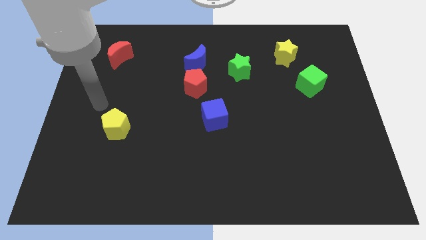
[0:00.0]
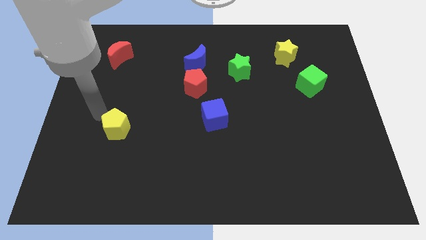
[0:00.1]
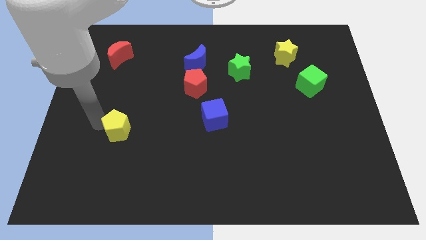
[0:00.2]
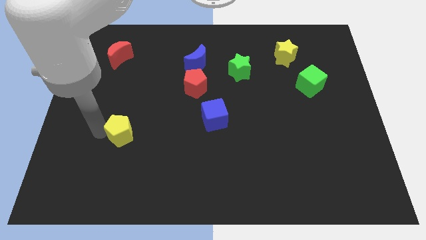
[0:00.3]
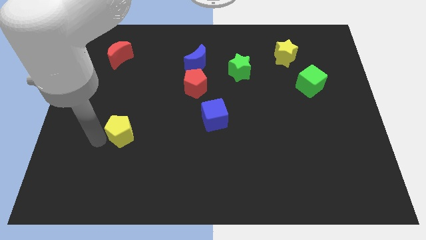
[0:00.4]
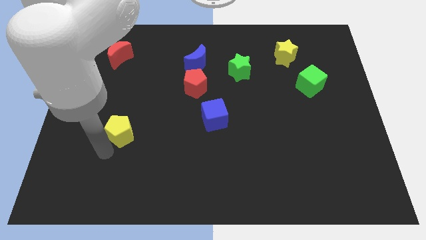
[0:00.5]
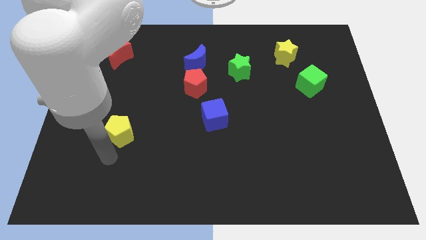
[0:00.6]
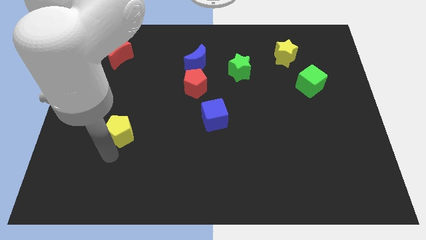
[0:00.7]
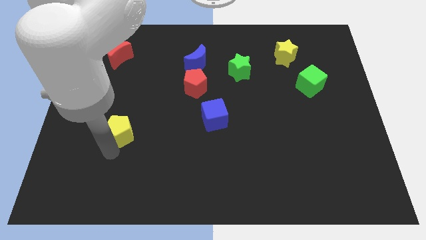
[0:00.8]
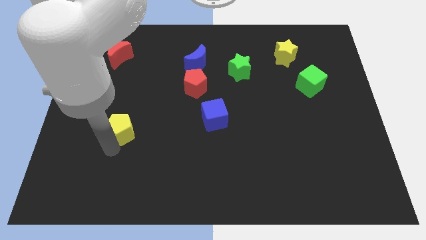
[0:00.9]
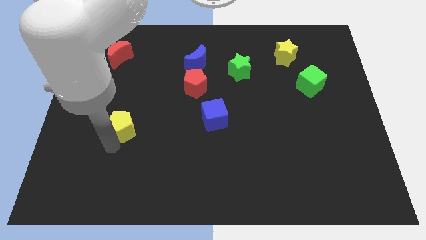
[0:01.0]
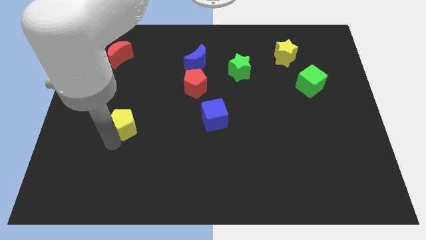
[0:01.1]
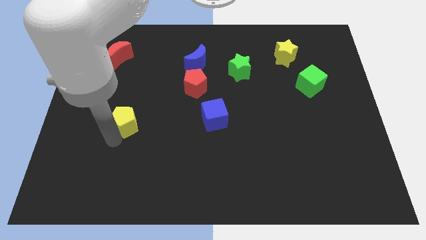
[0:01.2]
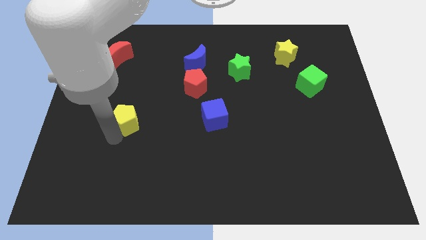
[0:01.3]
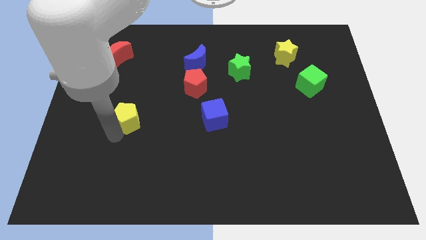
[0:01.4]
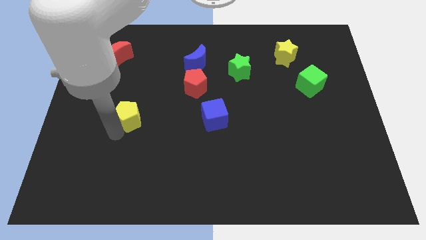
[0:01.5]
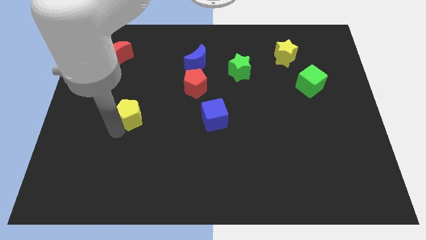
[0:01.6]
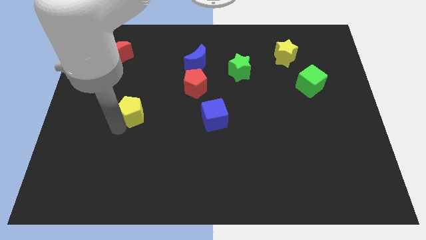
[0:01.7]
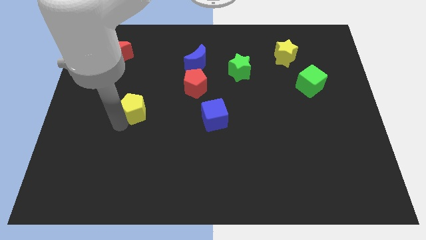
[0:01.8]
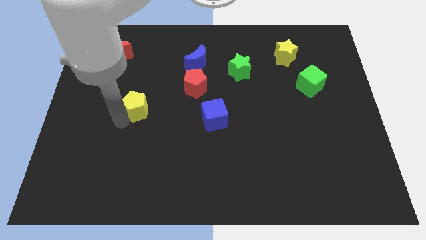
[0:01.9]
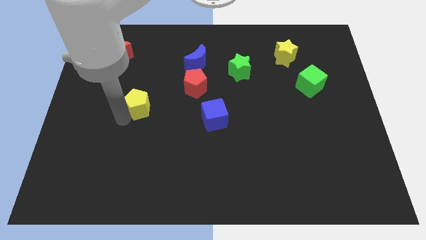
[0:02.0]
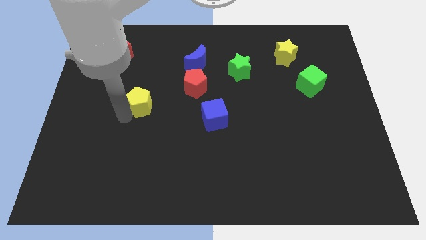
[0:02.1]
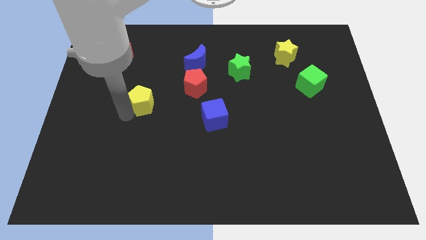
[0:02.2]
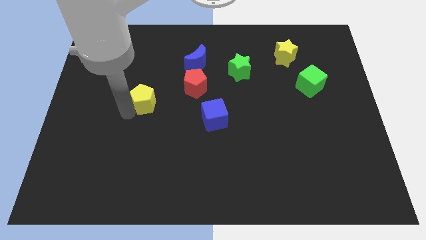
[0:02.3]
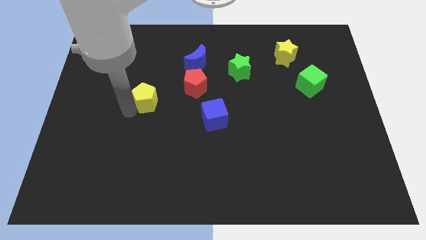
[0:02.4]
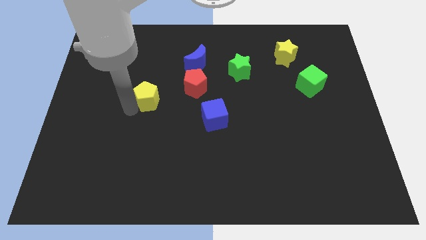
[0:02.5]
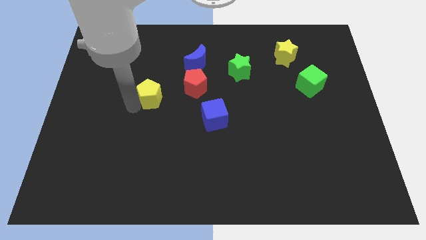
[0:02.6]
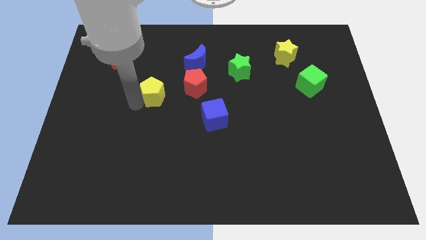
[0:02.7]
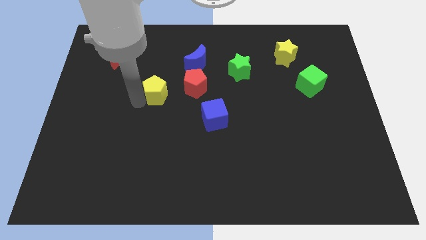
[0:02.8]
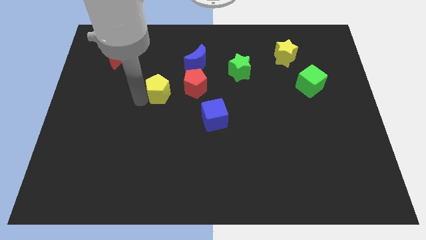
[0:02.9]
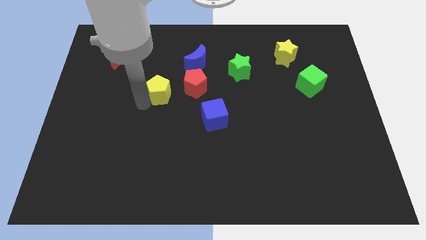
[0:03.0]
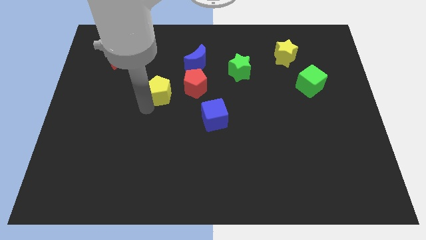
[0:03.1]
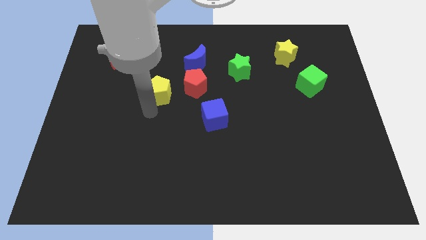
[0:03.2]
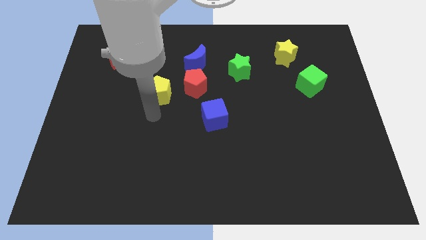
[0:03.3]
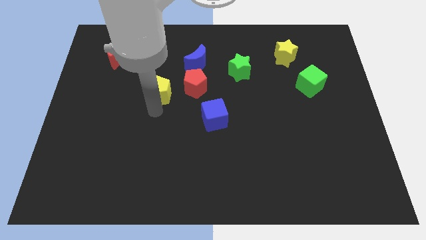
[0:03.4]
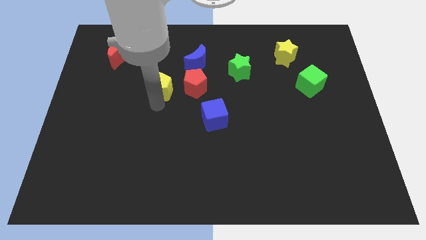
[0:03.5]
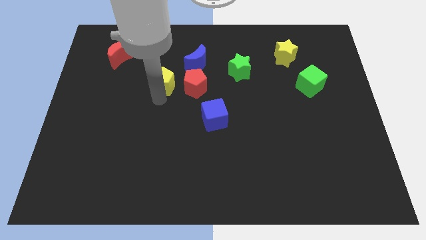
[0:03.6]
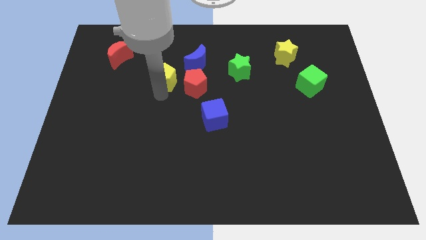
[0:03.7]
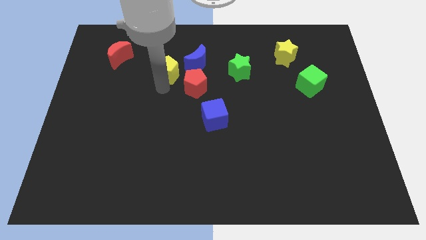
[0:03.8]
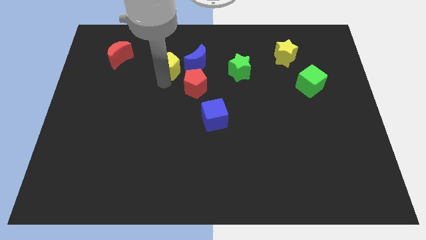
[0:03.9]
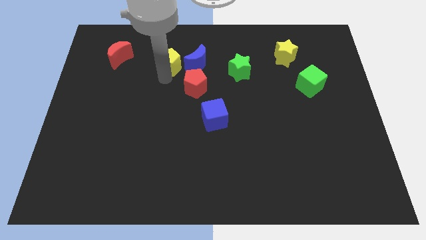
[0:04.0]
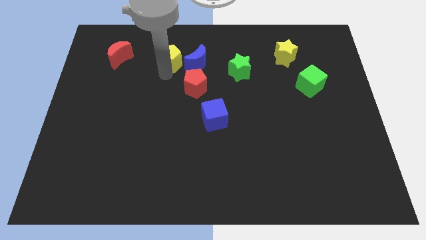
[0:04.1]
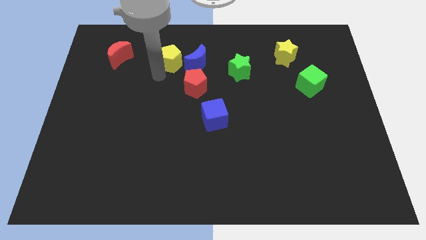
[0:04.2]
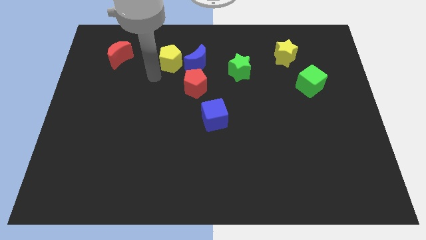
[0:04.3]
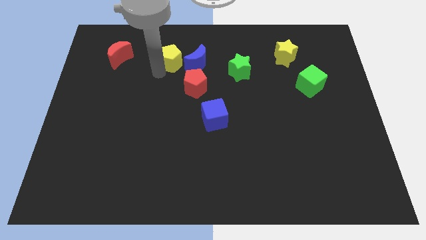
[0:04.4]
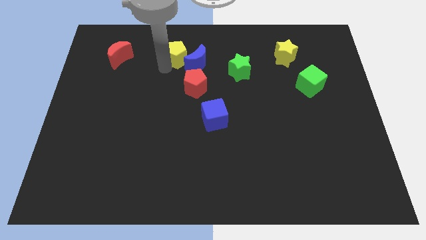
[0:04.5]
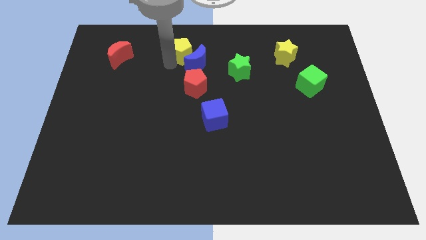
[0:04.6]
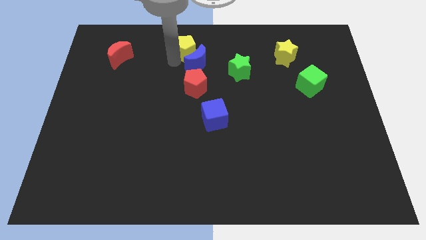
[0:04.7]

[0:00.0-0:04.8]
push the yellow pentagon to the top

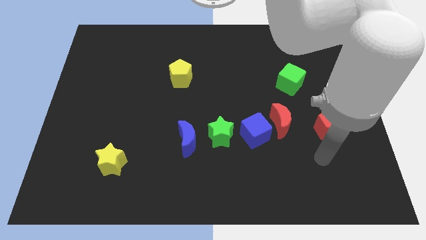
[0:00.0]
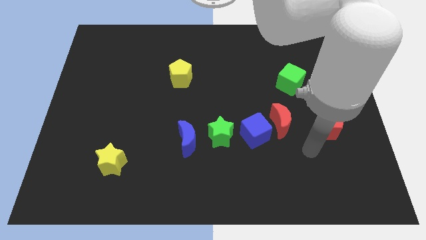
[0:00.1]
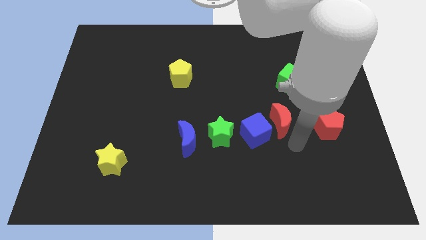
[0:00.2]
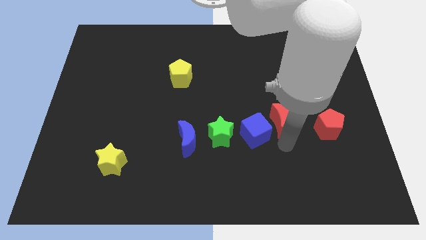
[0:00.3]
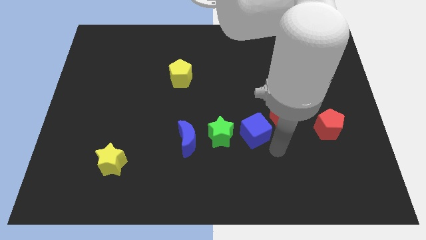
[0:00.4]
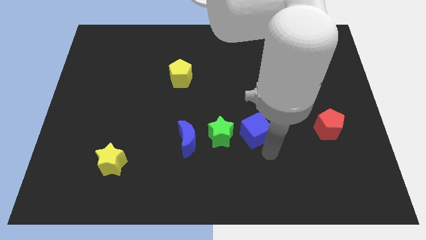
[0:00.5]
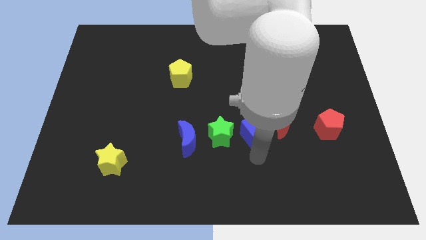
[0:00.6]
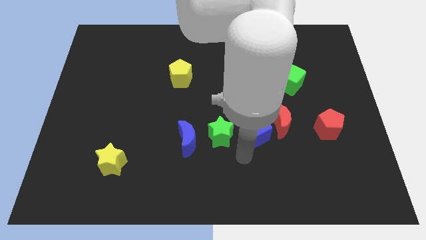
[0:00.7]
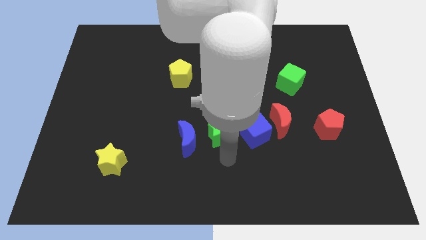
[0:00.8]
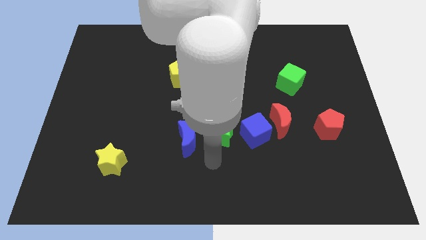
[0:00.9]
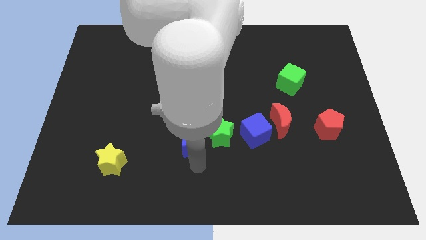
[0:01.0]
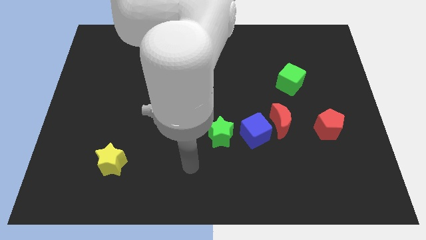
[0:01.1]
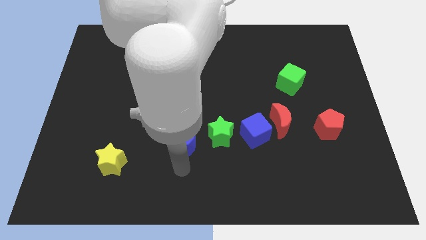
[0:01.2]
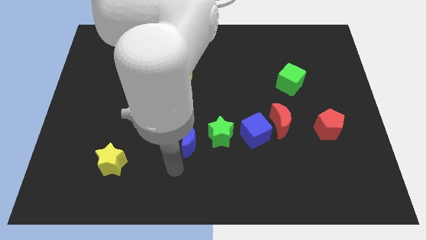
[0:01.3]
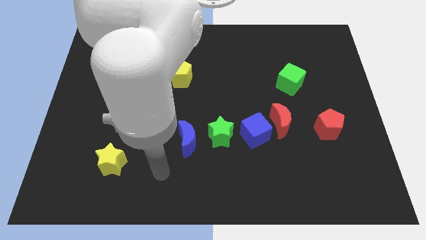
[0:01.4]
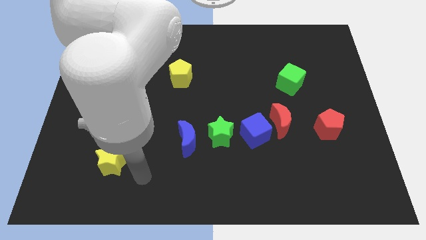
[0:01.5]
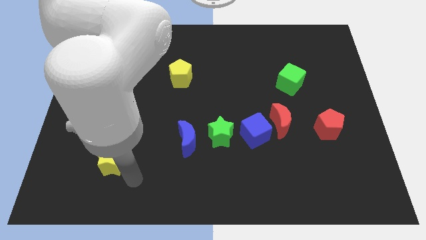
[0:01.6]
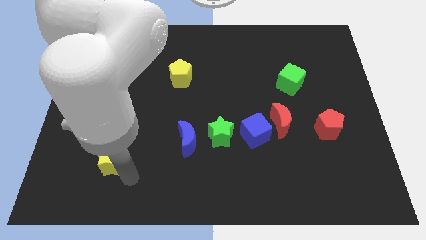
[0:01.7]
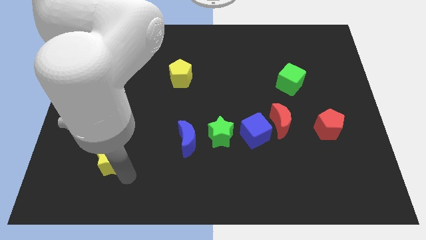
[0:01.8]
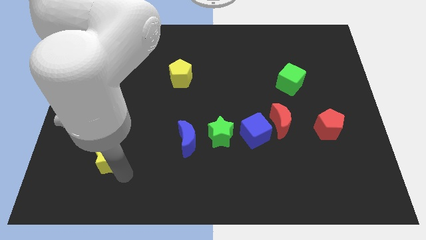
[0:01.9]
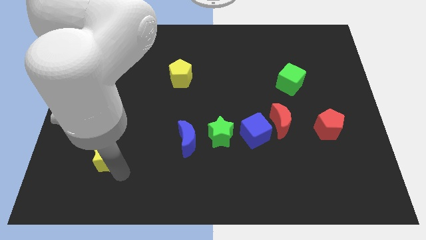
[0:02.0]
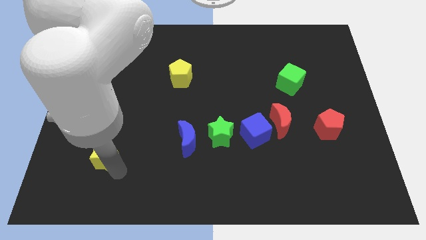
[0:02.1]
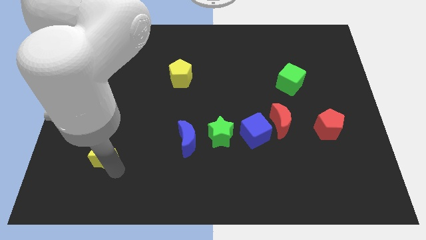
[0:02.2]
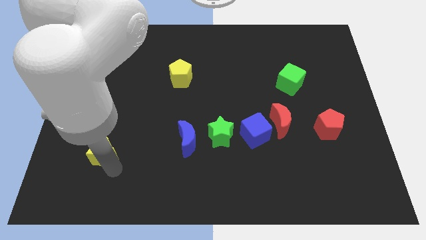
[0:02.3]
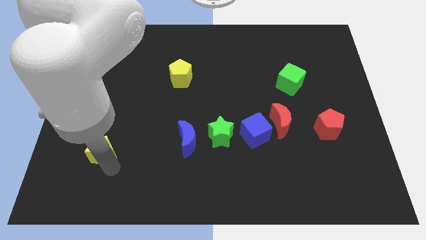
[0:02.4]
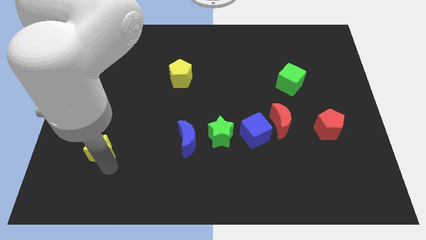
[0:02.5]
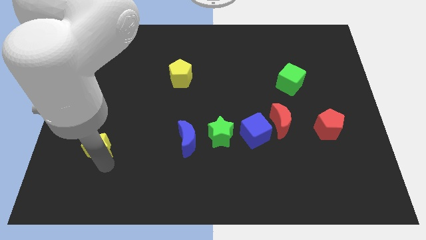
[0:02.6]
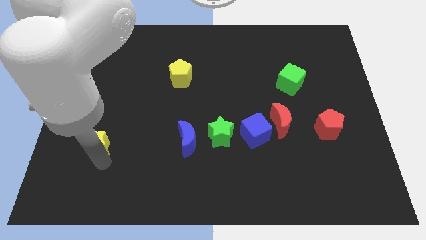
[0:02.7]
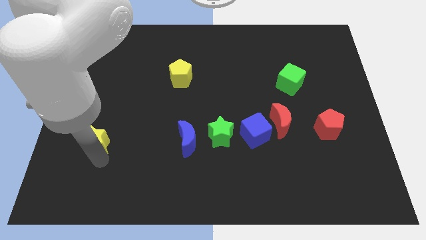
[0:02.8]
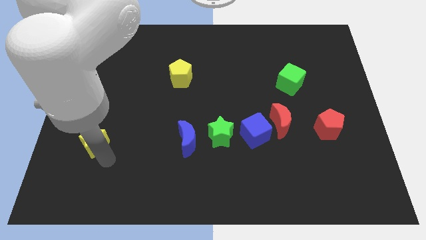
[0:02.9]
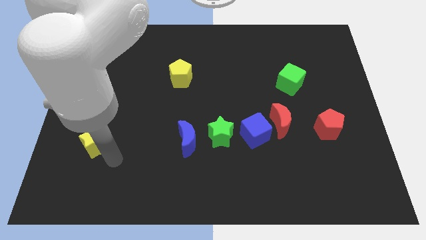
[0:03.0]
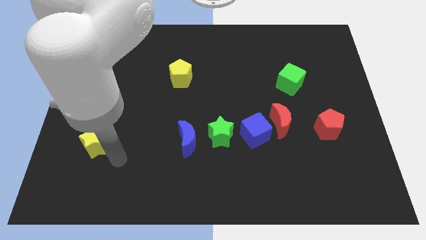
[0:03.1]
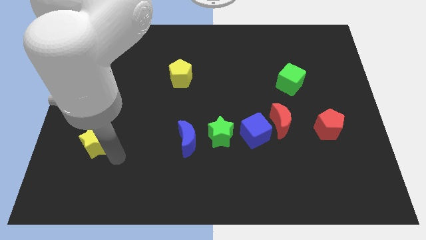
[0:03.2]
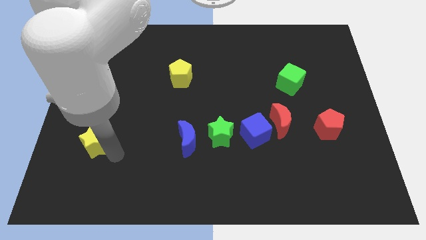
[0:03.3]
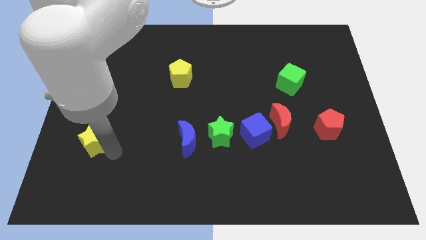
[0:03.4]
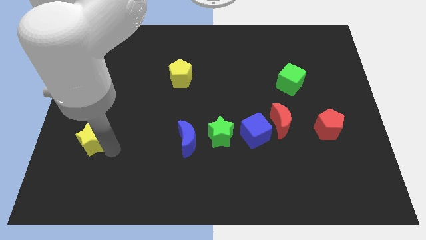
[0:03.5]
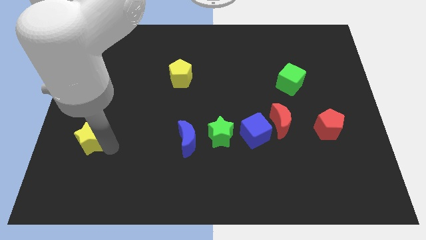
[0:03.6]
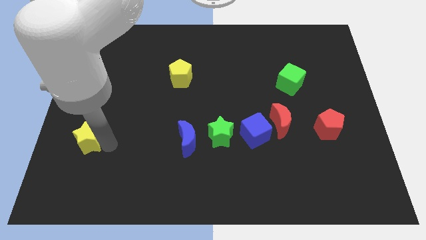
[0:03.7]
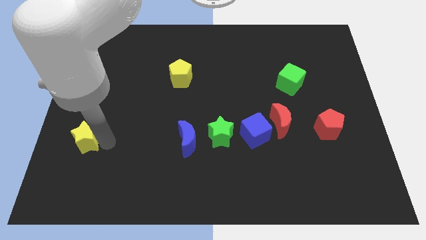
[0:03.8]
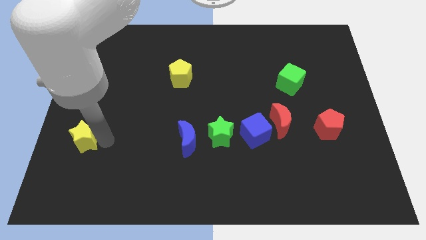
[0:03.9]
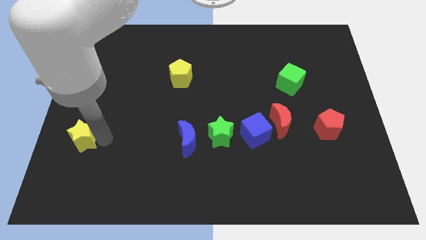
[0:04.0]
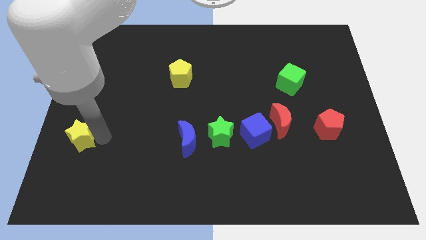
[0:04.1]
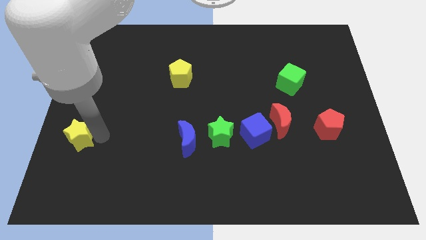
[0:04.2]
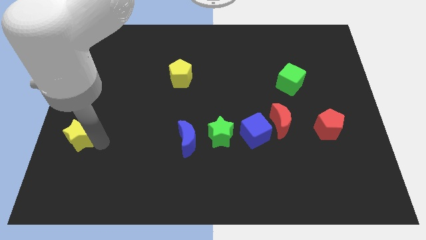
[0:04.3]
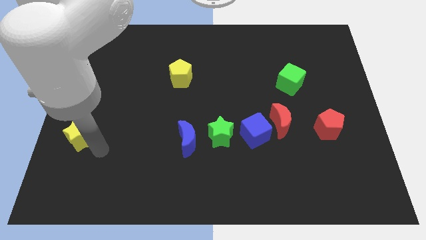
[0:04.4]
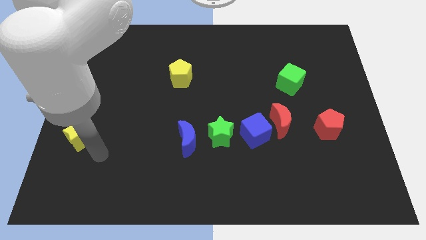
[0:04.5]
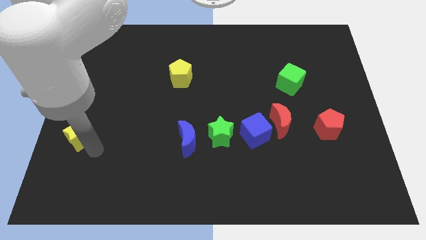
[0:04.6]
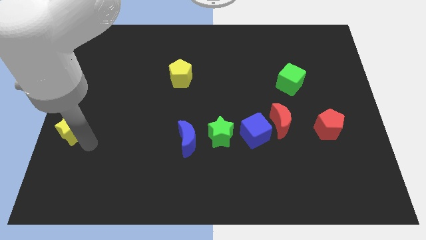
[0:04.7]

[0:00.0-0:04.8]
slide the yellow star to the left side
